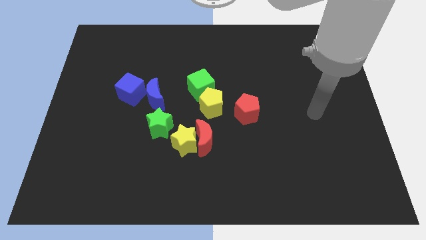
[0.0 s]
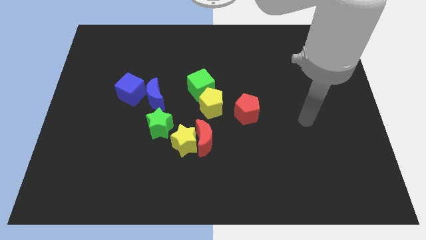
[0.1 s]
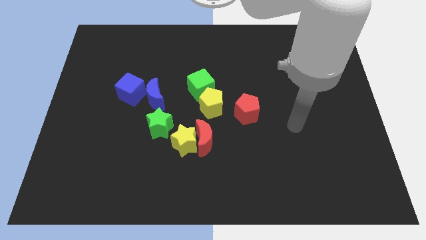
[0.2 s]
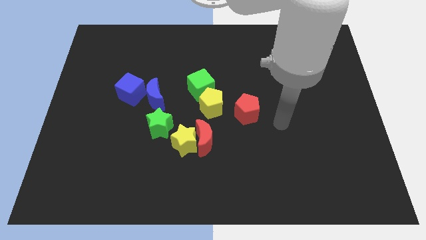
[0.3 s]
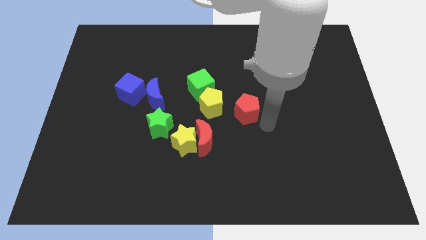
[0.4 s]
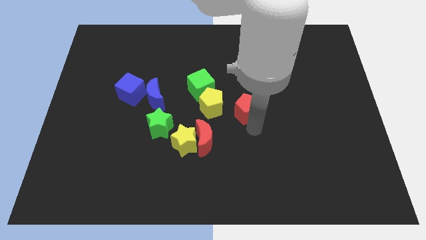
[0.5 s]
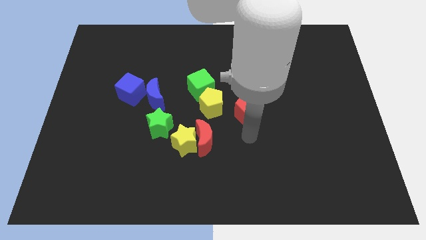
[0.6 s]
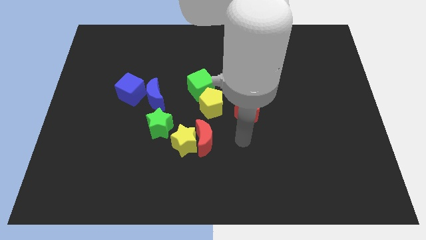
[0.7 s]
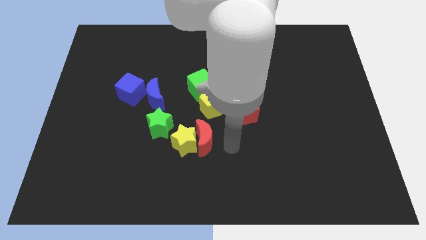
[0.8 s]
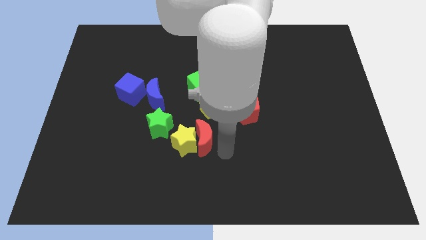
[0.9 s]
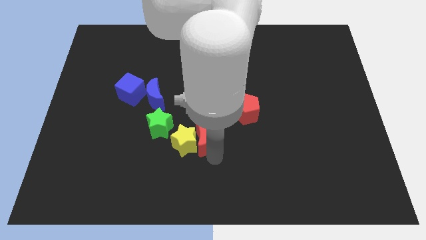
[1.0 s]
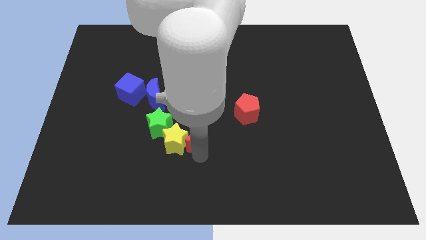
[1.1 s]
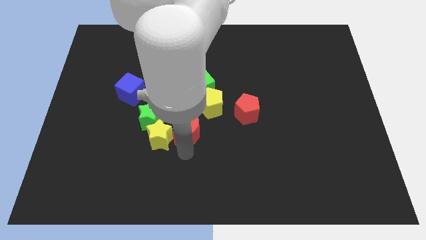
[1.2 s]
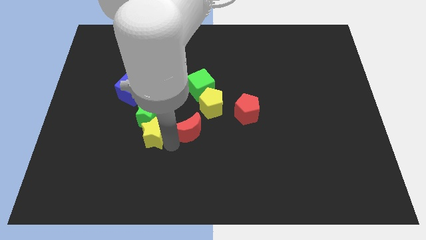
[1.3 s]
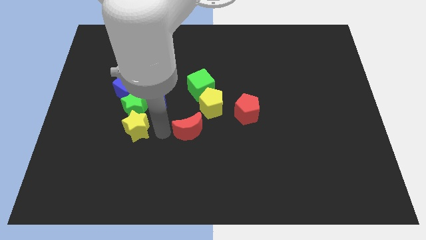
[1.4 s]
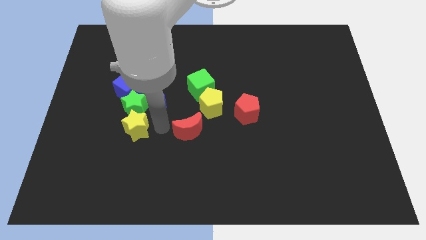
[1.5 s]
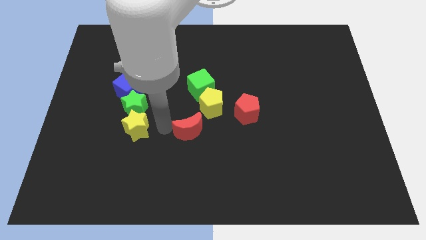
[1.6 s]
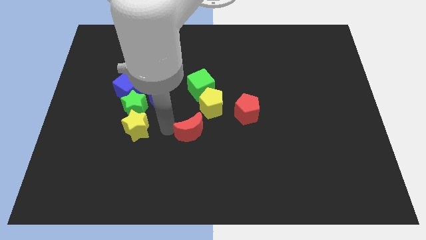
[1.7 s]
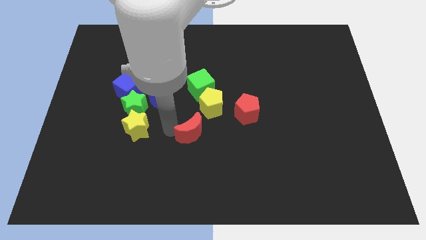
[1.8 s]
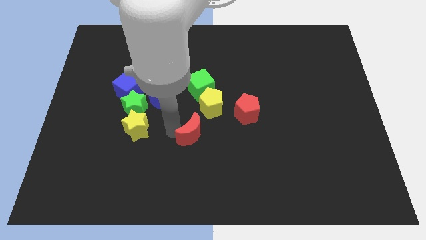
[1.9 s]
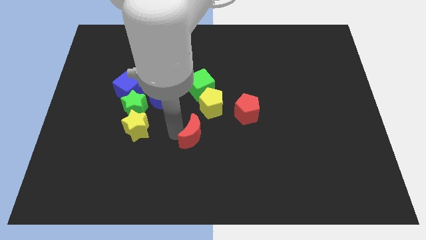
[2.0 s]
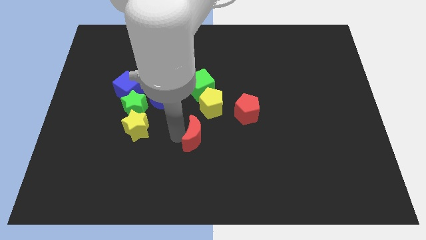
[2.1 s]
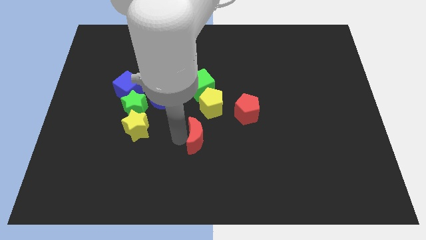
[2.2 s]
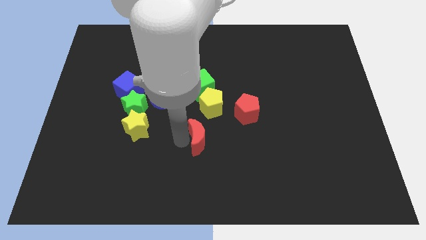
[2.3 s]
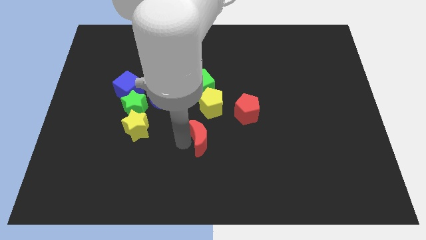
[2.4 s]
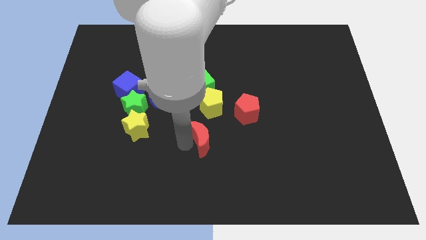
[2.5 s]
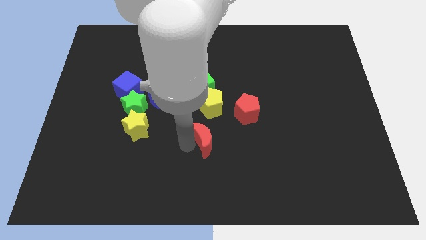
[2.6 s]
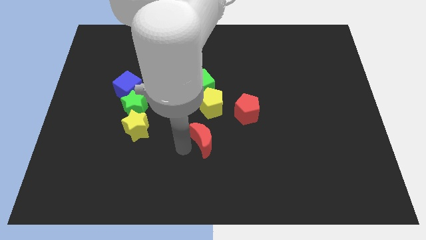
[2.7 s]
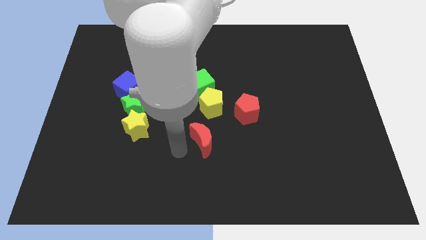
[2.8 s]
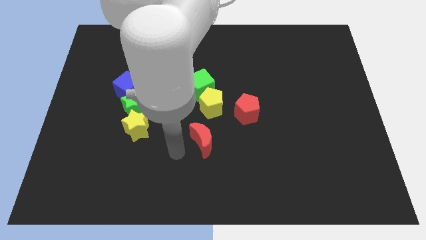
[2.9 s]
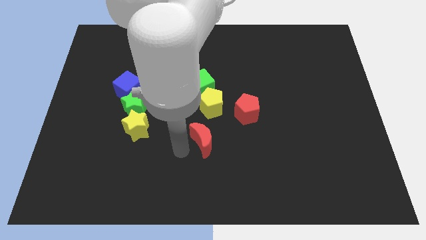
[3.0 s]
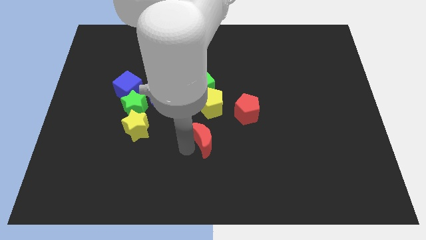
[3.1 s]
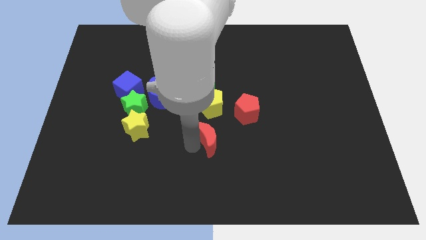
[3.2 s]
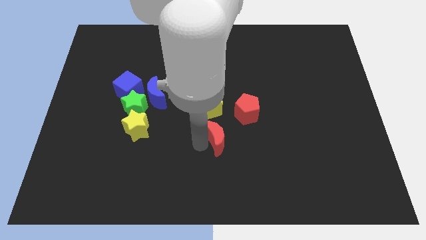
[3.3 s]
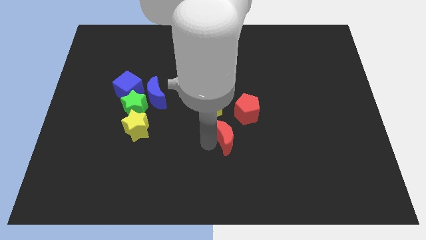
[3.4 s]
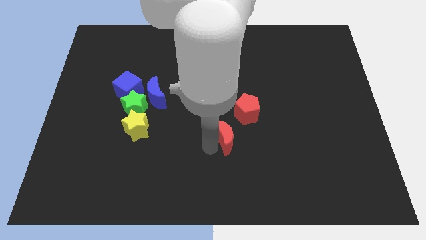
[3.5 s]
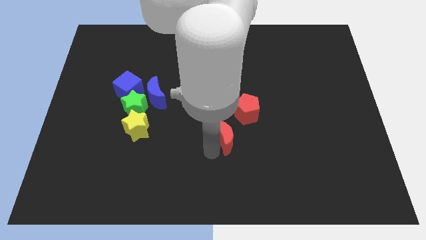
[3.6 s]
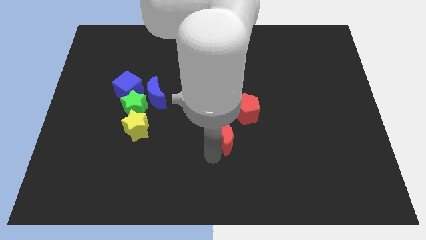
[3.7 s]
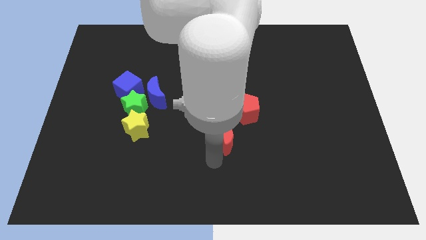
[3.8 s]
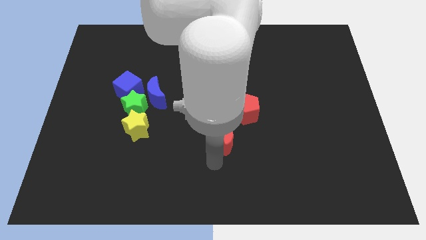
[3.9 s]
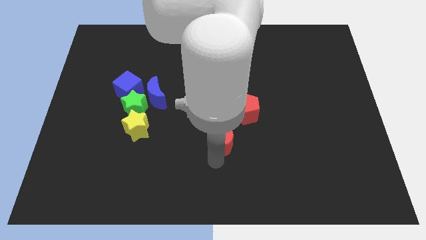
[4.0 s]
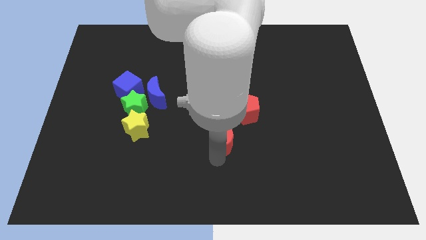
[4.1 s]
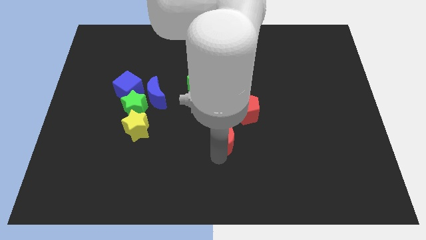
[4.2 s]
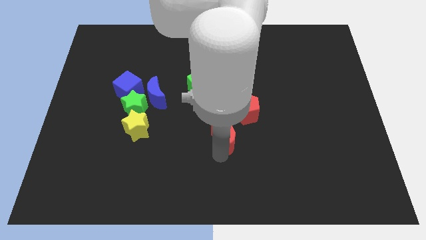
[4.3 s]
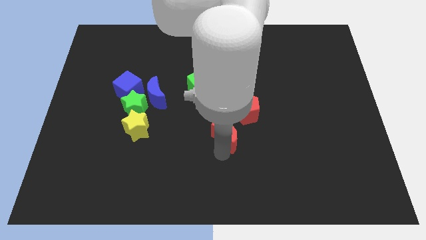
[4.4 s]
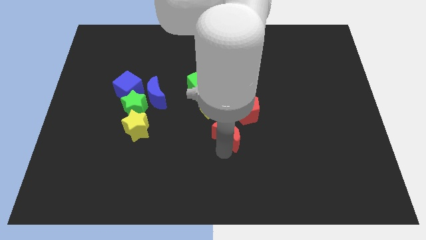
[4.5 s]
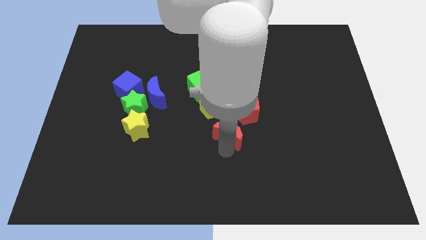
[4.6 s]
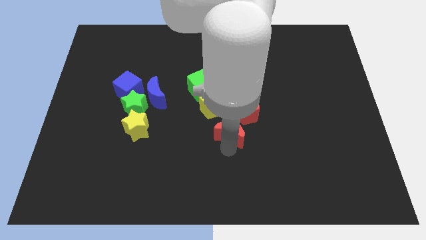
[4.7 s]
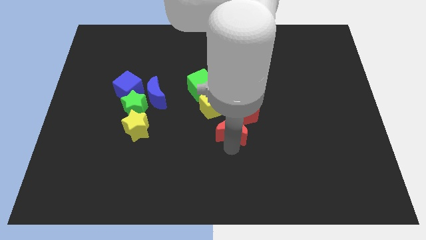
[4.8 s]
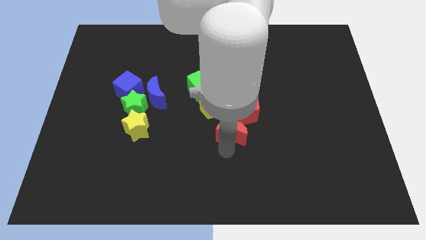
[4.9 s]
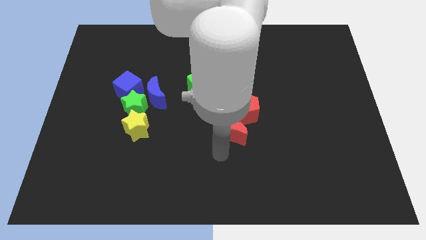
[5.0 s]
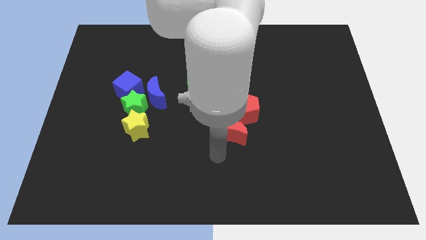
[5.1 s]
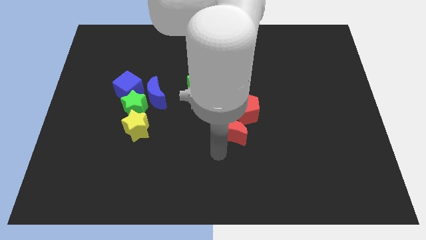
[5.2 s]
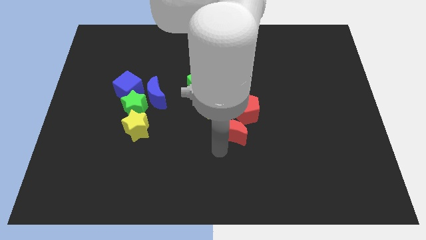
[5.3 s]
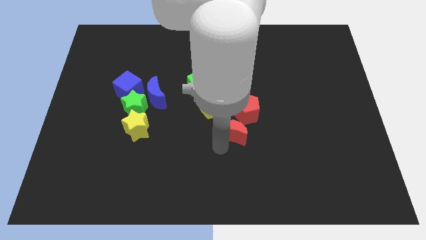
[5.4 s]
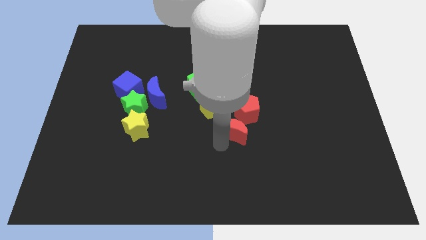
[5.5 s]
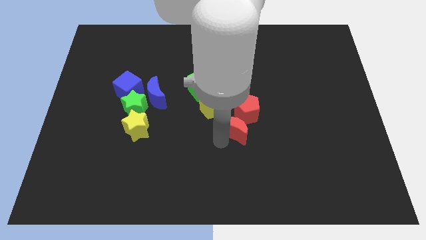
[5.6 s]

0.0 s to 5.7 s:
slide the red moon next to the red pentagon

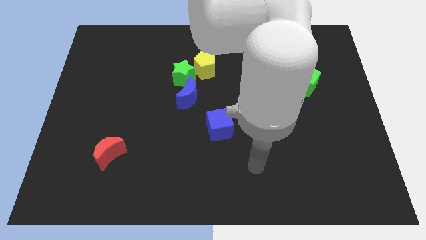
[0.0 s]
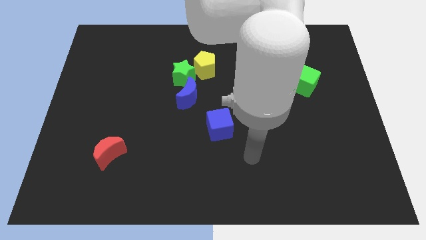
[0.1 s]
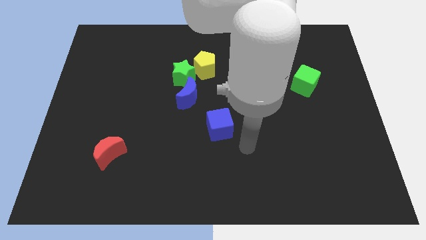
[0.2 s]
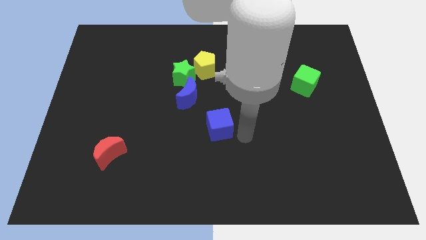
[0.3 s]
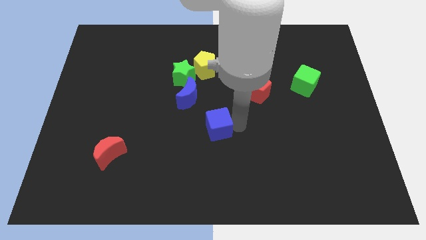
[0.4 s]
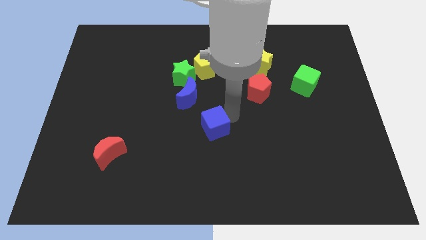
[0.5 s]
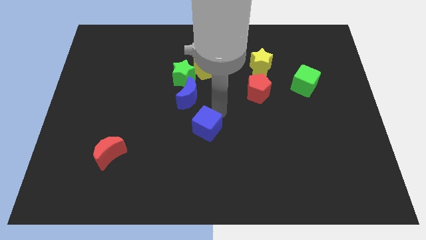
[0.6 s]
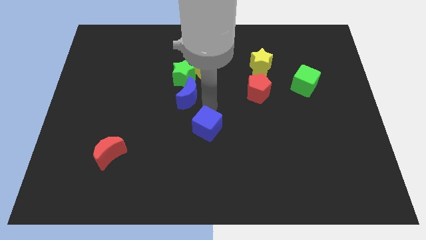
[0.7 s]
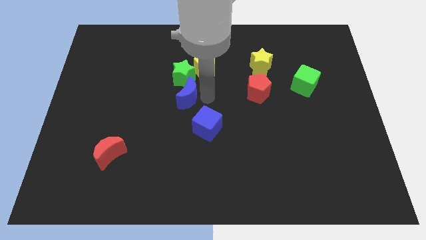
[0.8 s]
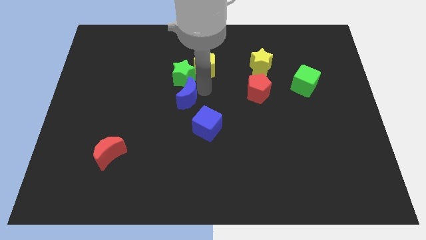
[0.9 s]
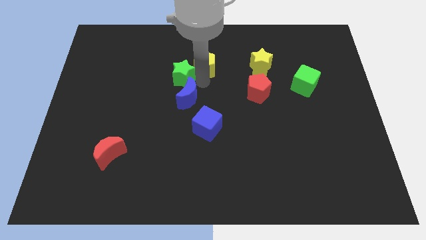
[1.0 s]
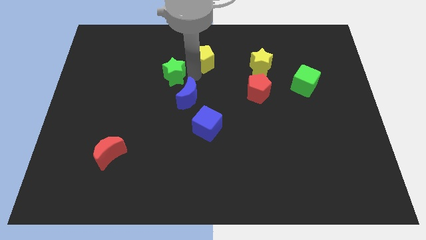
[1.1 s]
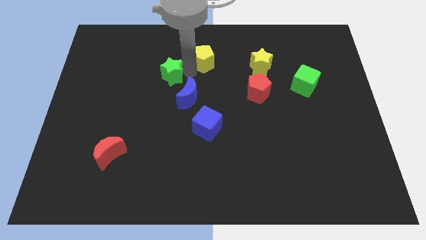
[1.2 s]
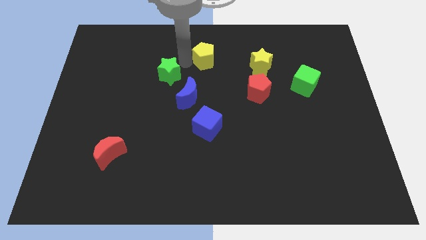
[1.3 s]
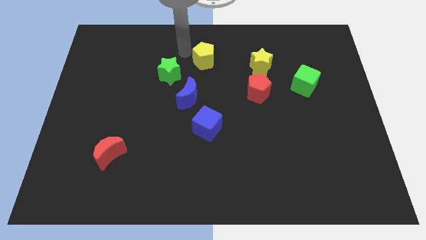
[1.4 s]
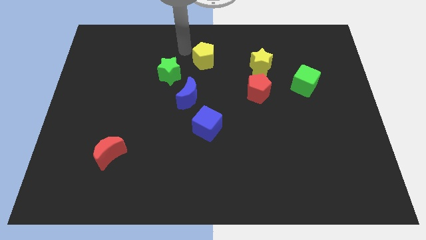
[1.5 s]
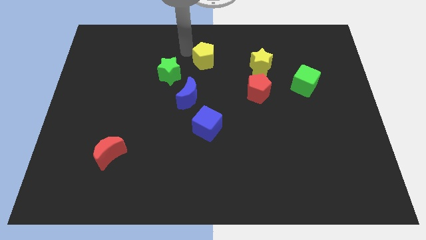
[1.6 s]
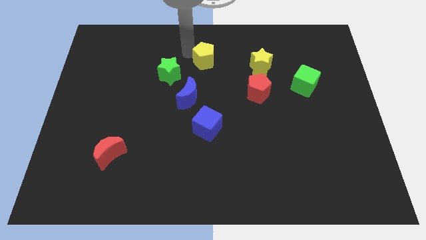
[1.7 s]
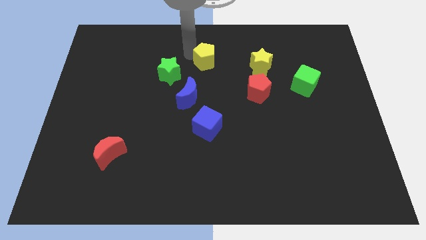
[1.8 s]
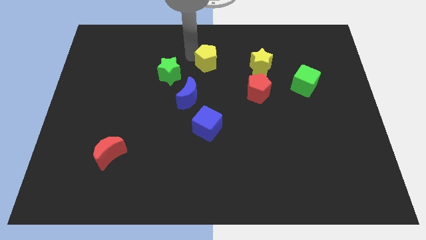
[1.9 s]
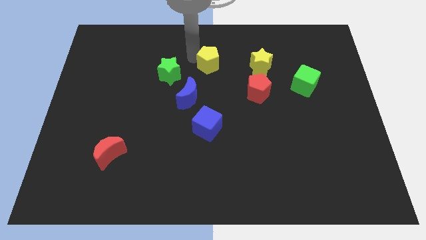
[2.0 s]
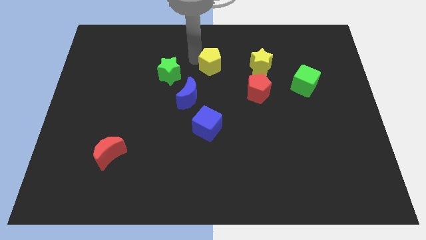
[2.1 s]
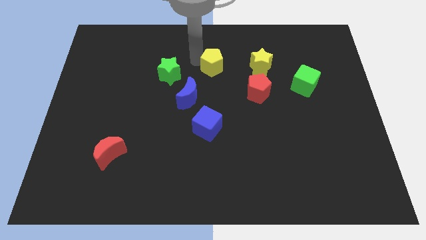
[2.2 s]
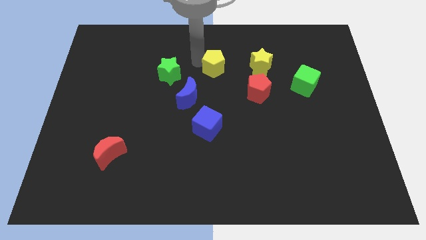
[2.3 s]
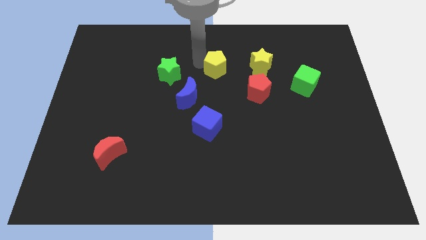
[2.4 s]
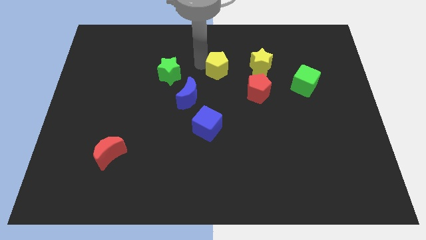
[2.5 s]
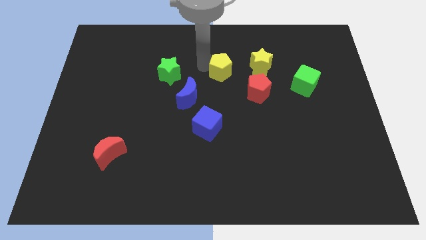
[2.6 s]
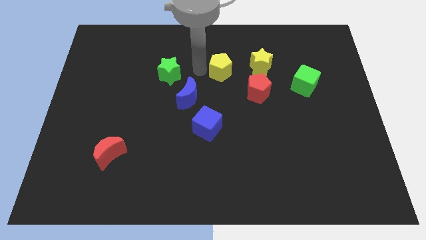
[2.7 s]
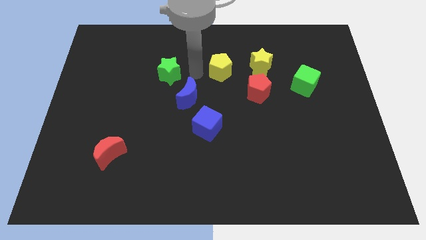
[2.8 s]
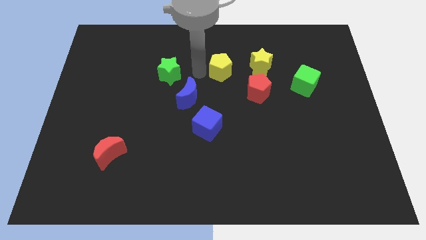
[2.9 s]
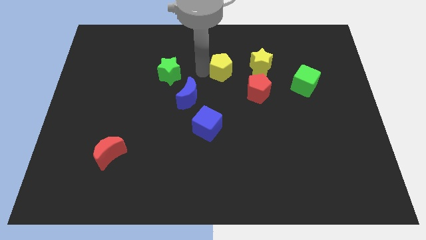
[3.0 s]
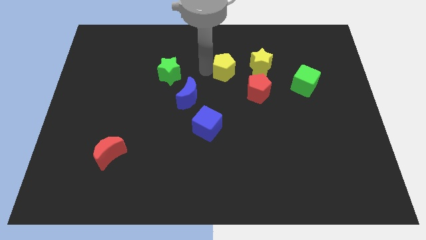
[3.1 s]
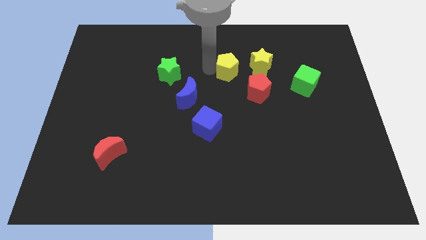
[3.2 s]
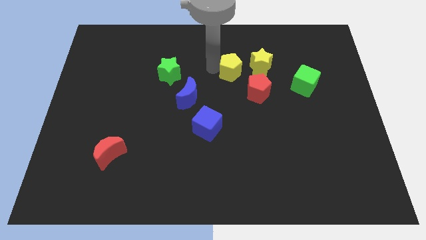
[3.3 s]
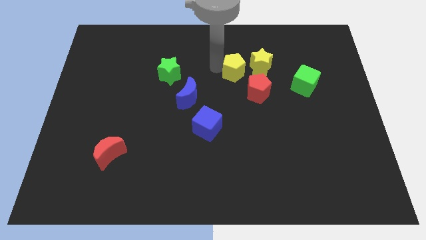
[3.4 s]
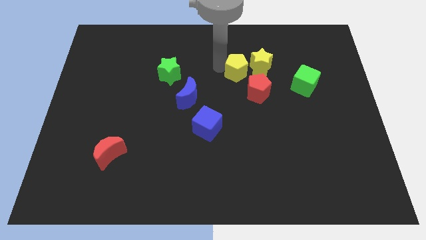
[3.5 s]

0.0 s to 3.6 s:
put the yellow pentagon close to the yellow star
